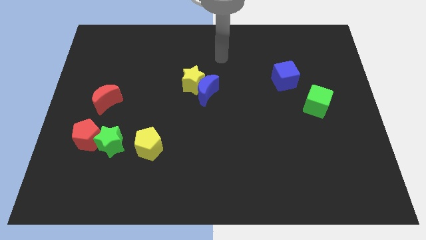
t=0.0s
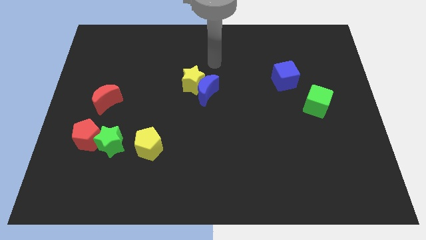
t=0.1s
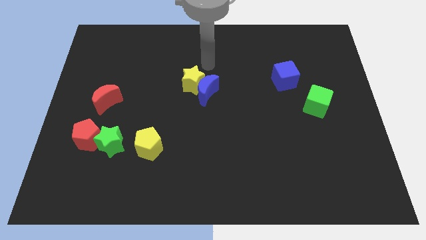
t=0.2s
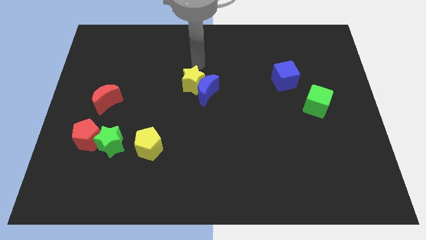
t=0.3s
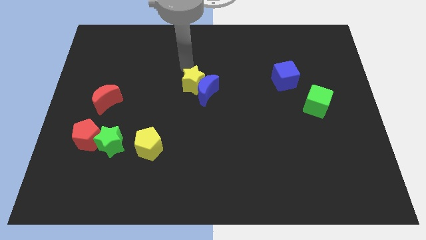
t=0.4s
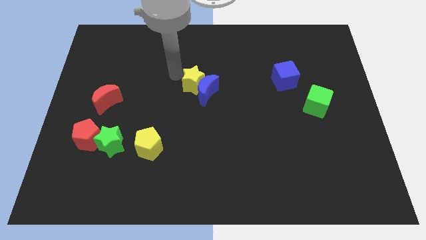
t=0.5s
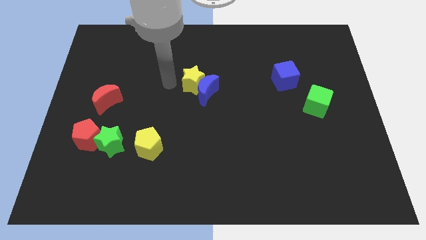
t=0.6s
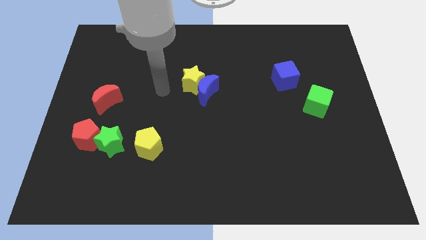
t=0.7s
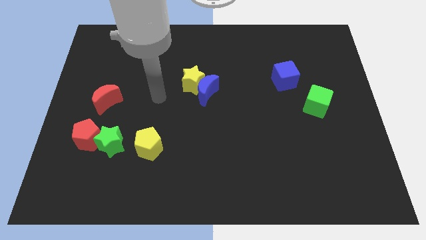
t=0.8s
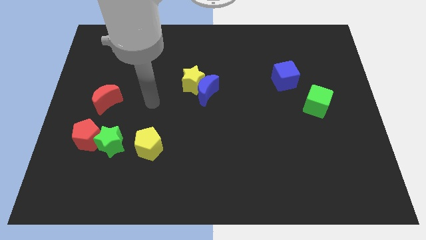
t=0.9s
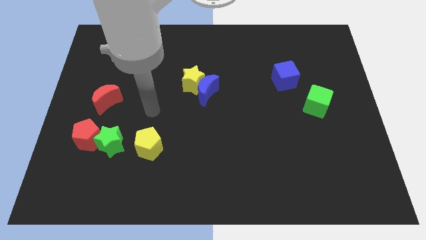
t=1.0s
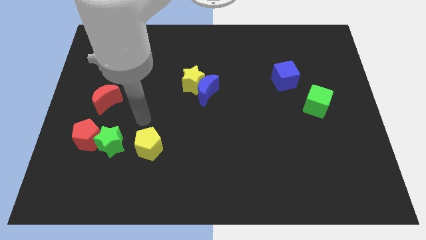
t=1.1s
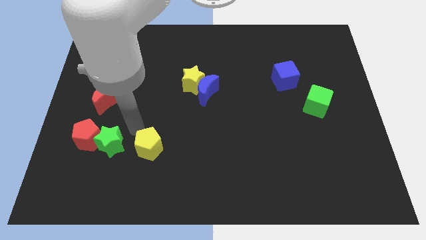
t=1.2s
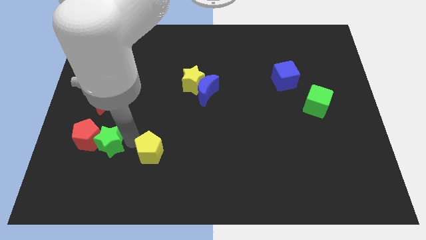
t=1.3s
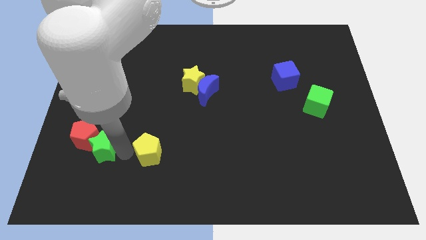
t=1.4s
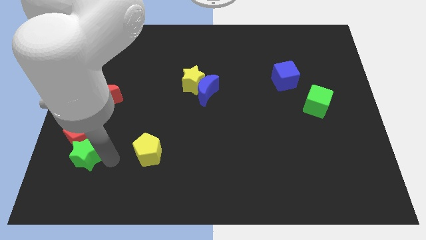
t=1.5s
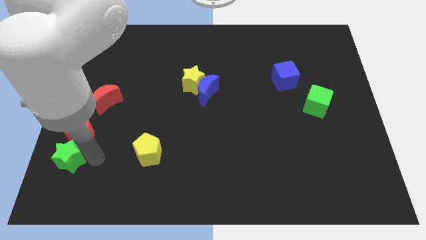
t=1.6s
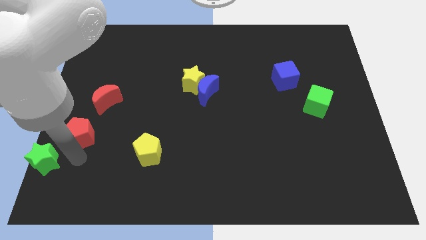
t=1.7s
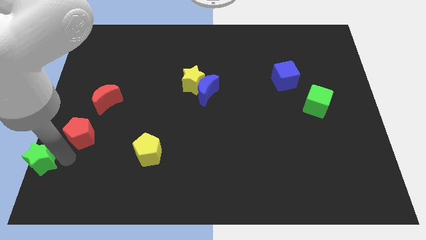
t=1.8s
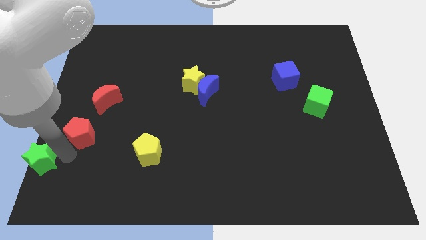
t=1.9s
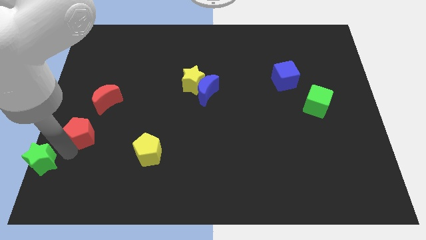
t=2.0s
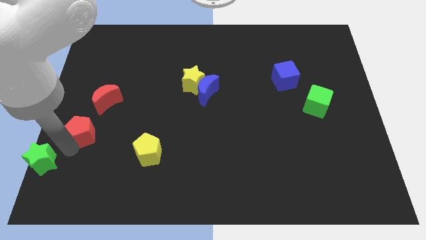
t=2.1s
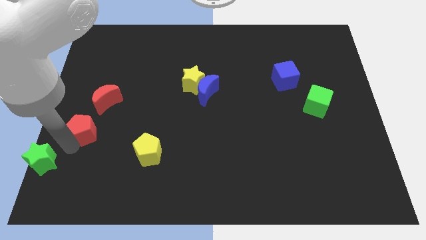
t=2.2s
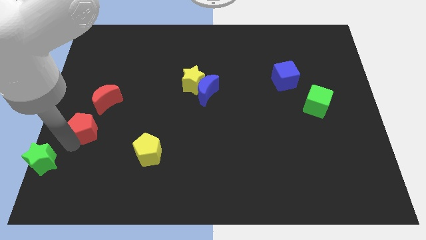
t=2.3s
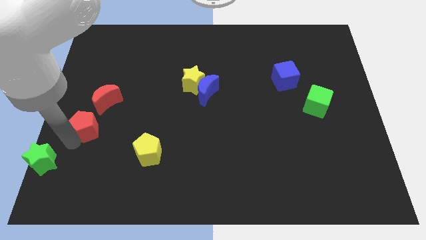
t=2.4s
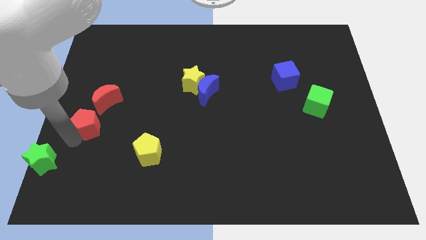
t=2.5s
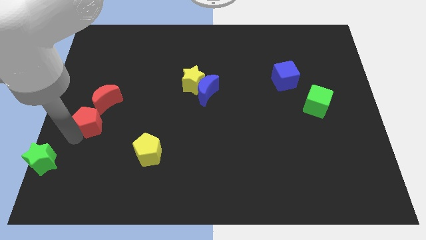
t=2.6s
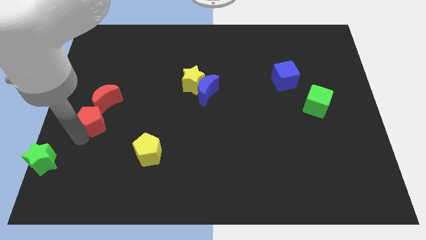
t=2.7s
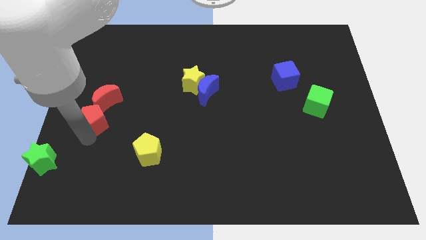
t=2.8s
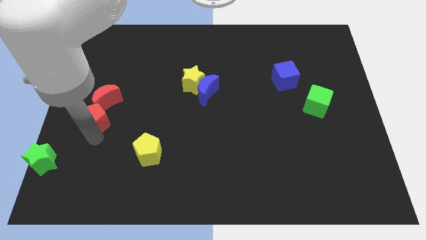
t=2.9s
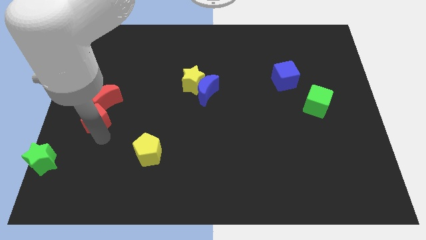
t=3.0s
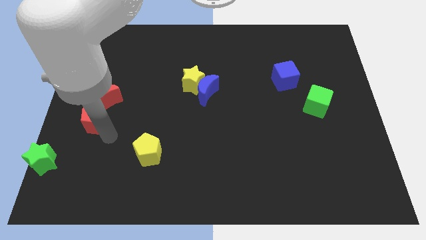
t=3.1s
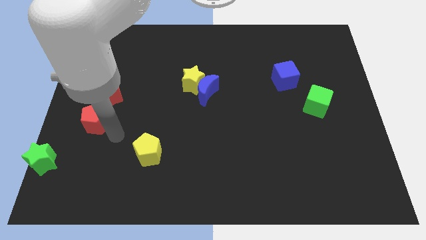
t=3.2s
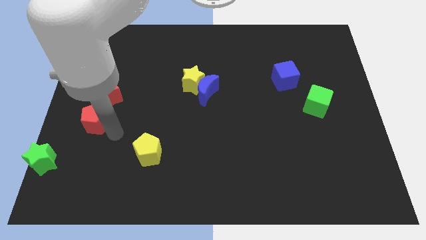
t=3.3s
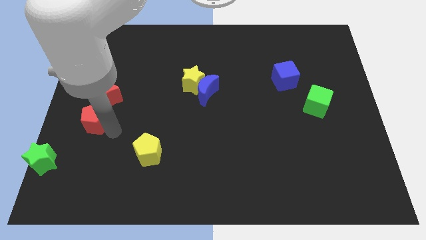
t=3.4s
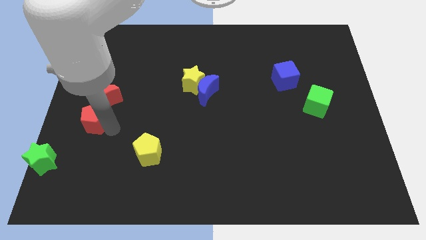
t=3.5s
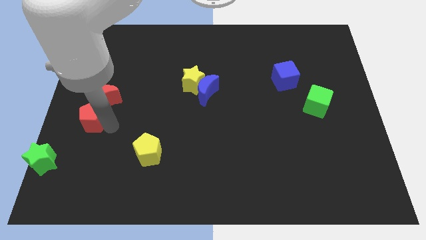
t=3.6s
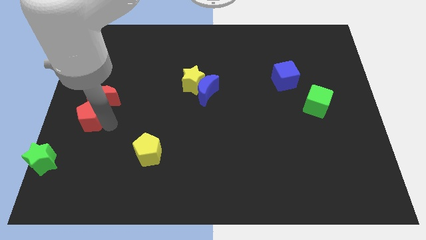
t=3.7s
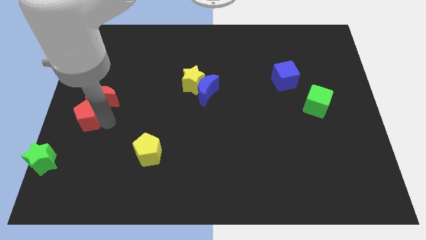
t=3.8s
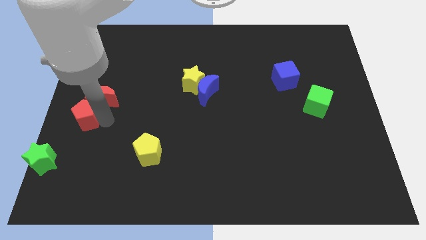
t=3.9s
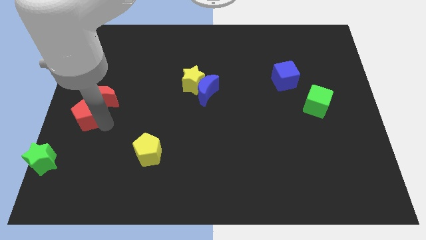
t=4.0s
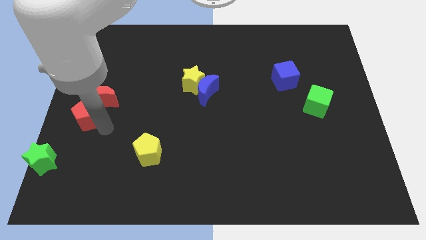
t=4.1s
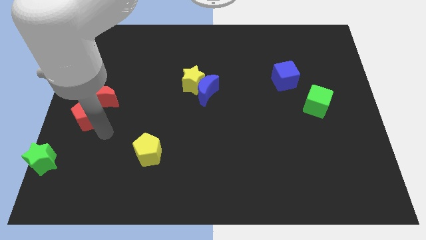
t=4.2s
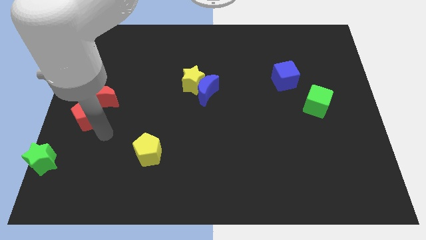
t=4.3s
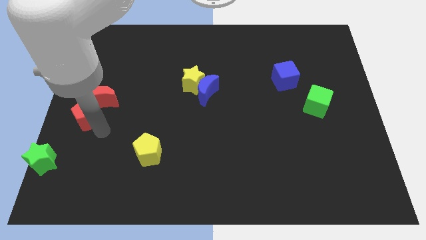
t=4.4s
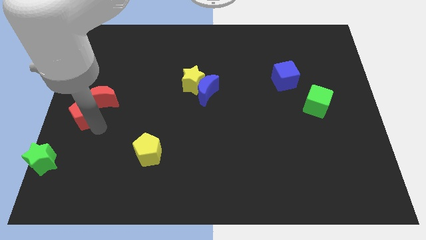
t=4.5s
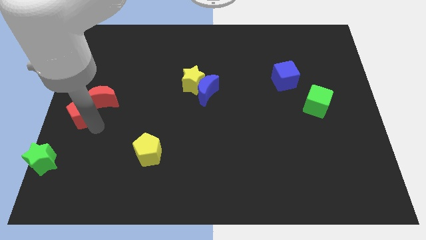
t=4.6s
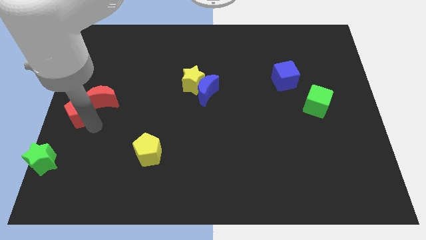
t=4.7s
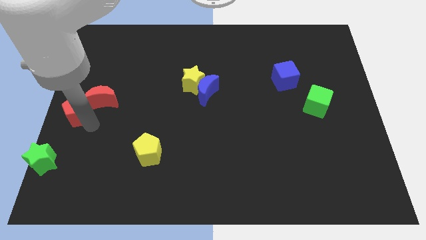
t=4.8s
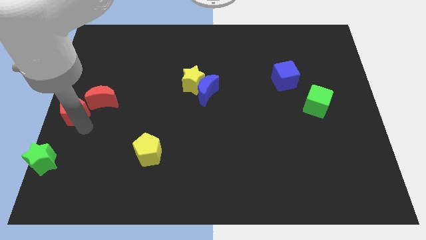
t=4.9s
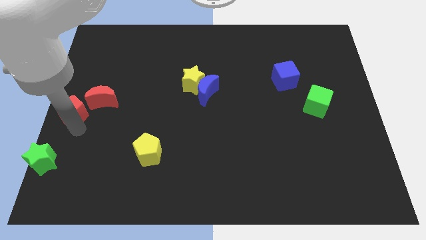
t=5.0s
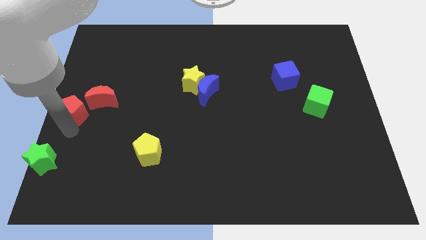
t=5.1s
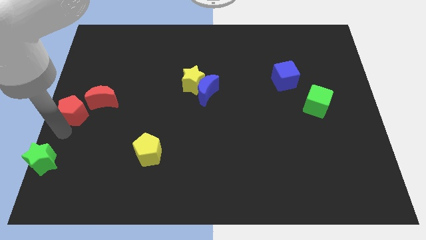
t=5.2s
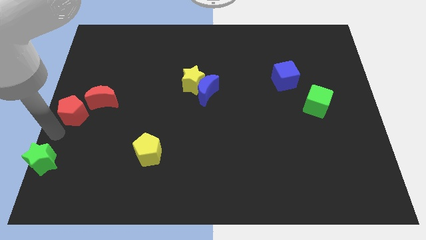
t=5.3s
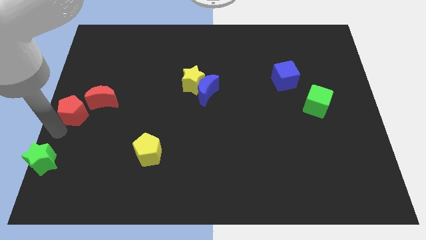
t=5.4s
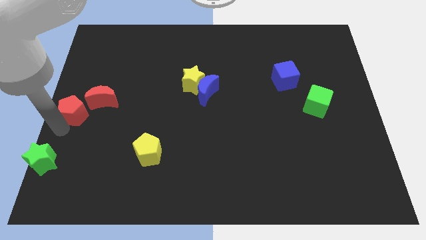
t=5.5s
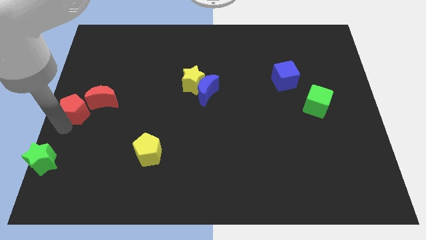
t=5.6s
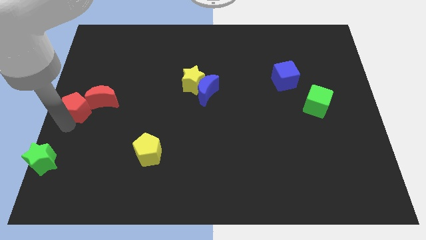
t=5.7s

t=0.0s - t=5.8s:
slightly slide the red pentagon up

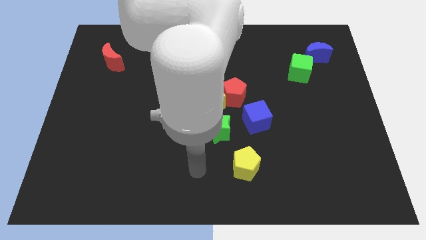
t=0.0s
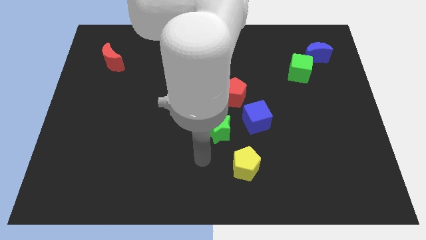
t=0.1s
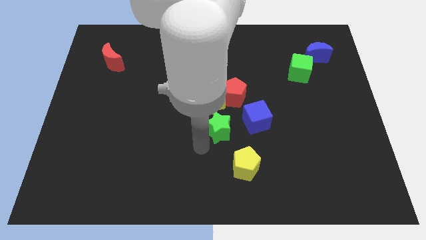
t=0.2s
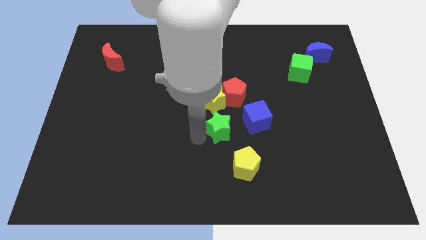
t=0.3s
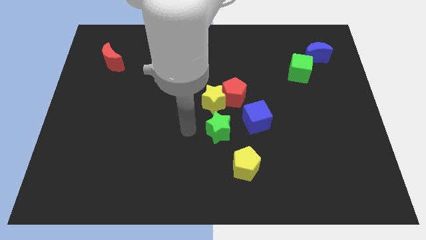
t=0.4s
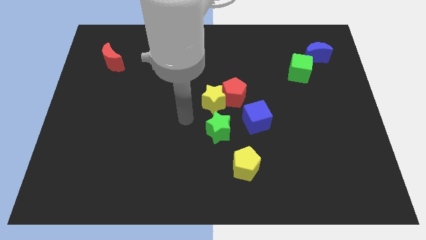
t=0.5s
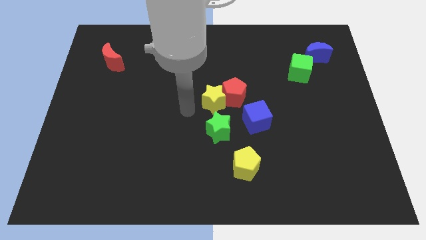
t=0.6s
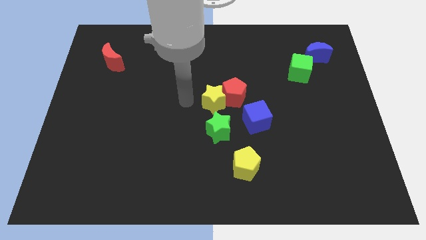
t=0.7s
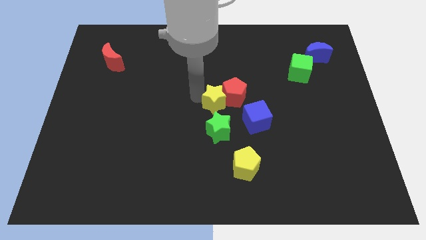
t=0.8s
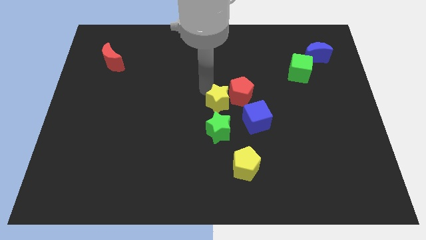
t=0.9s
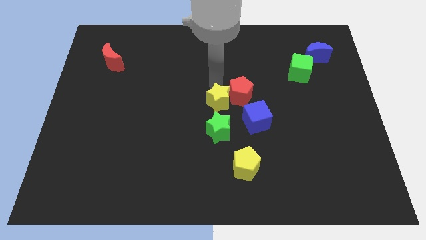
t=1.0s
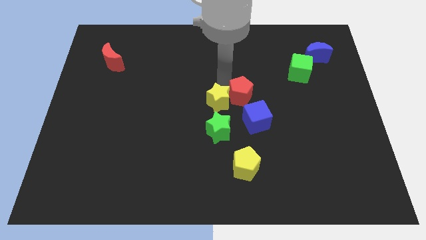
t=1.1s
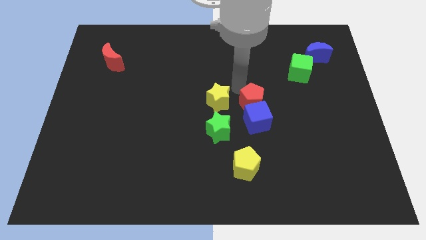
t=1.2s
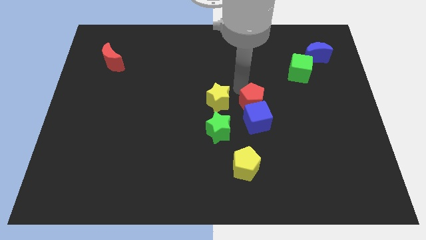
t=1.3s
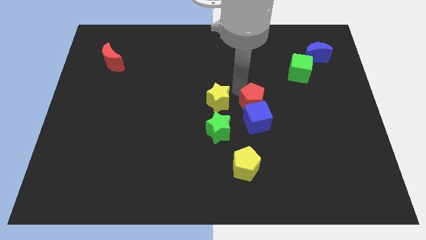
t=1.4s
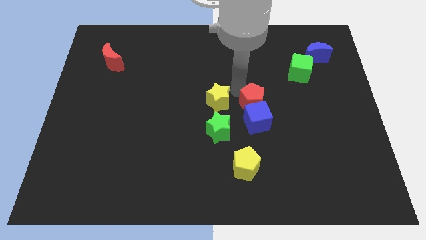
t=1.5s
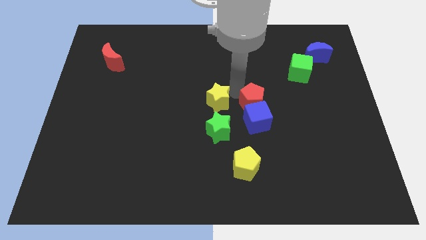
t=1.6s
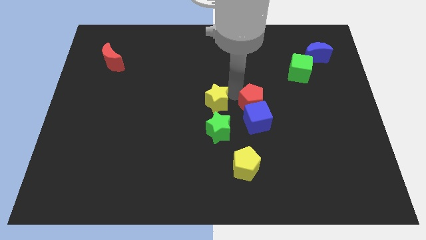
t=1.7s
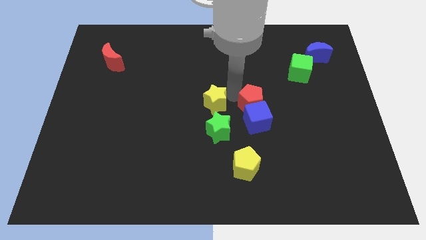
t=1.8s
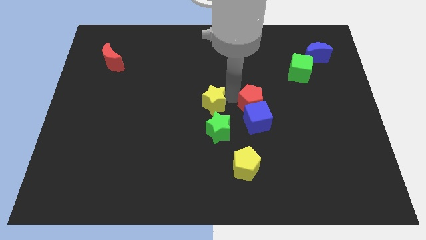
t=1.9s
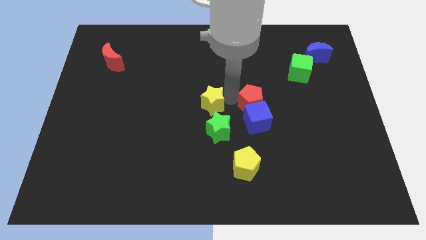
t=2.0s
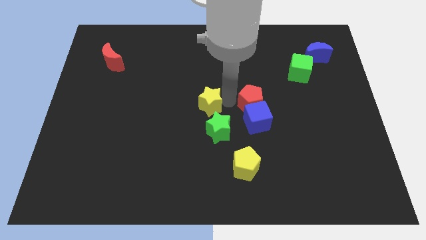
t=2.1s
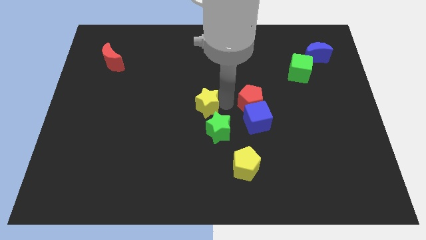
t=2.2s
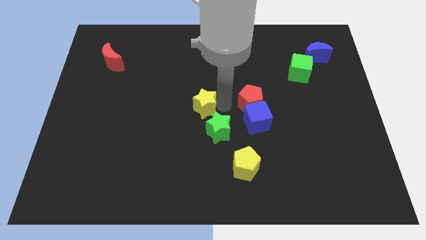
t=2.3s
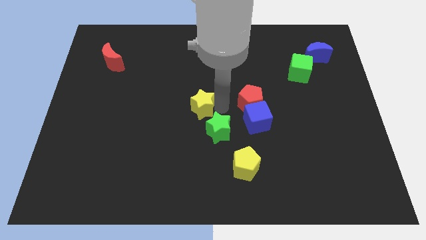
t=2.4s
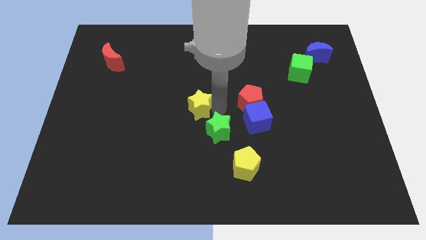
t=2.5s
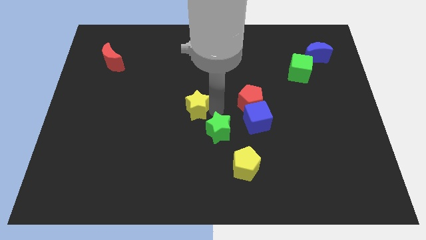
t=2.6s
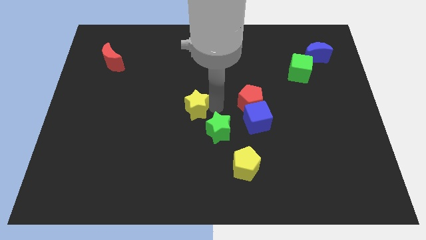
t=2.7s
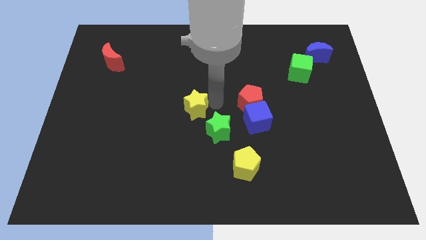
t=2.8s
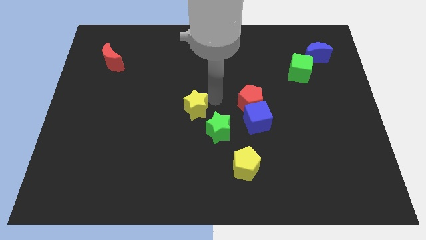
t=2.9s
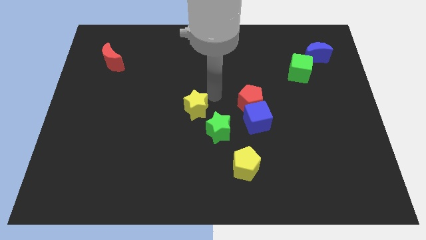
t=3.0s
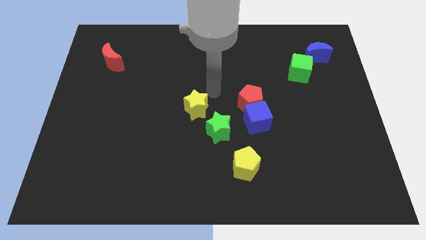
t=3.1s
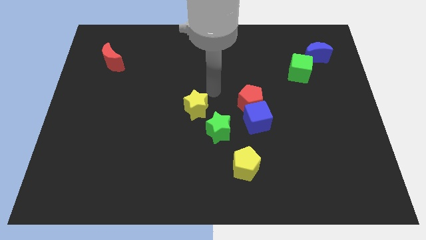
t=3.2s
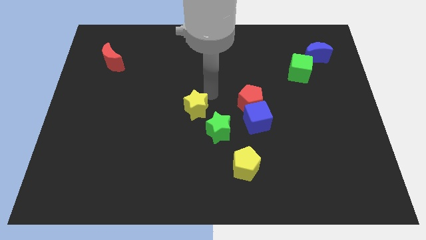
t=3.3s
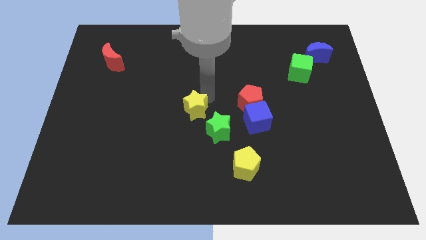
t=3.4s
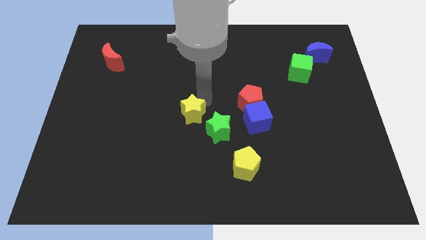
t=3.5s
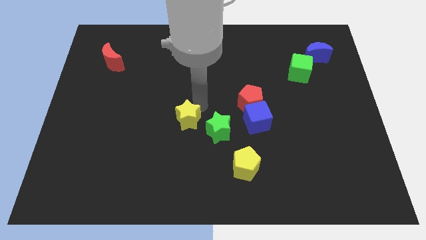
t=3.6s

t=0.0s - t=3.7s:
slide the yellow star a little downwards and to the left
